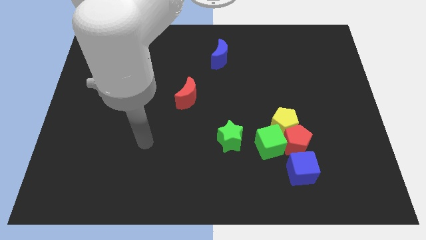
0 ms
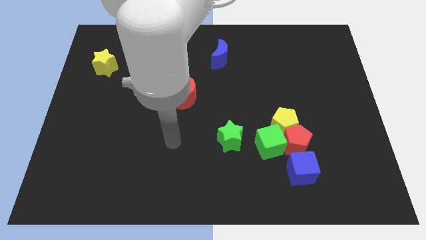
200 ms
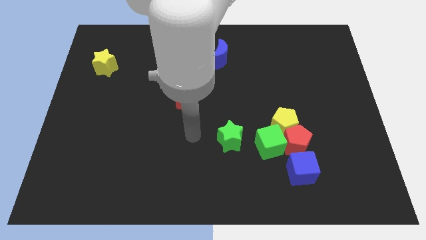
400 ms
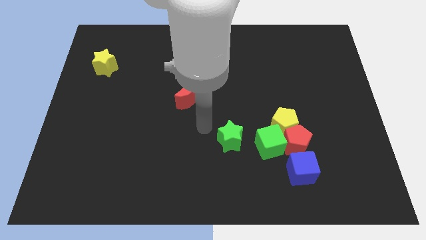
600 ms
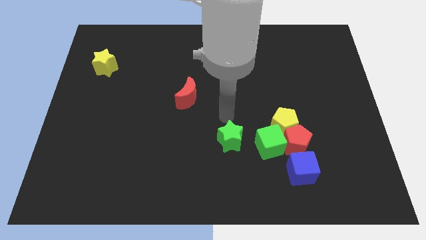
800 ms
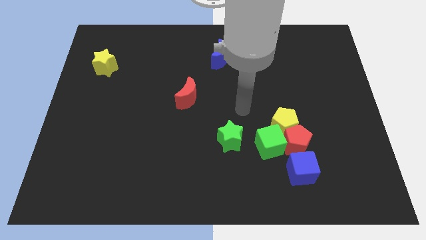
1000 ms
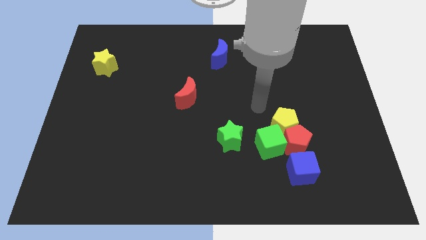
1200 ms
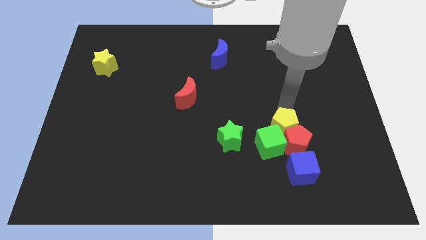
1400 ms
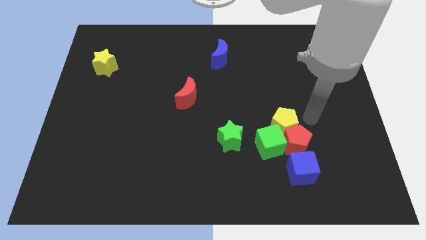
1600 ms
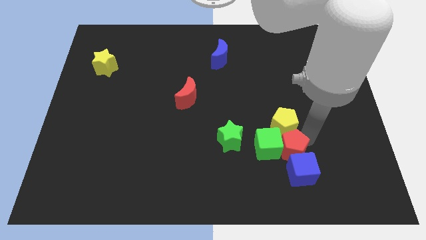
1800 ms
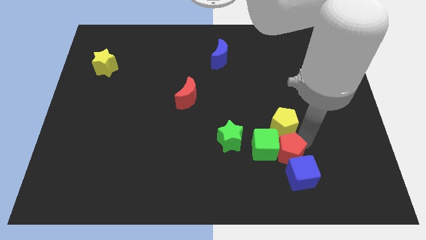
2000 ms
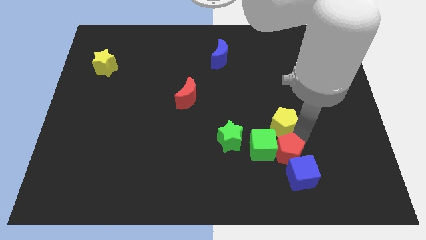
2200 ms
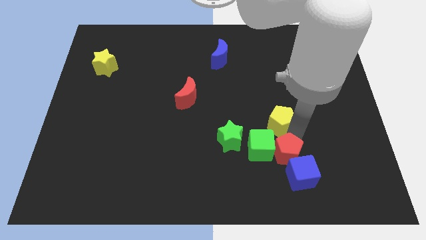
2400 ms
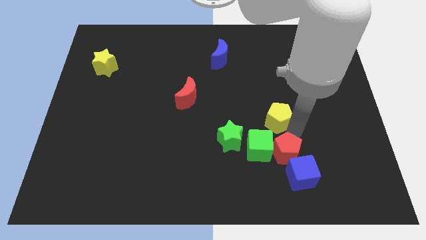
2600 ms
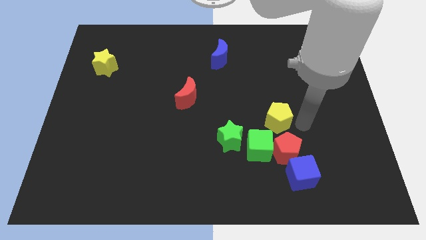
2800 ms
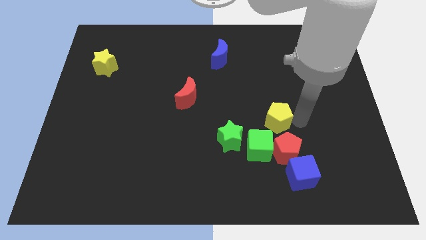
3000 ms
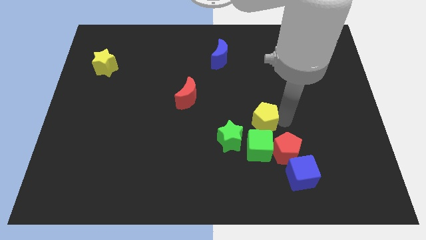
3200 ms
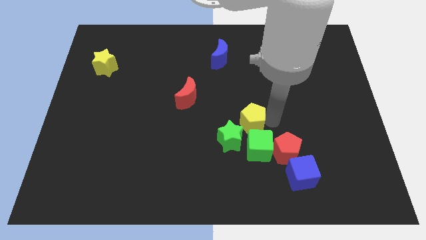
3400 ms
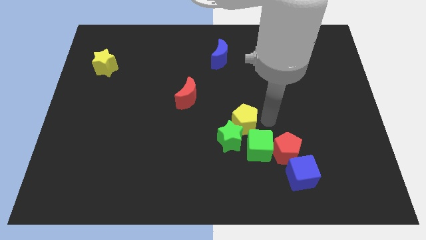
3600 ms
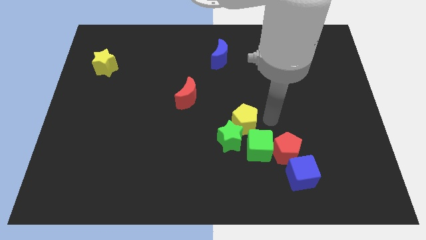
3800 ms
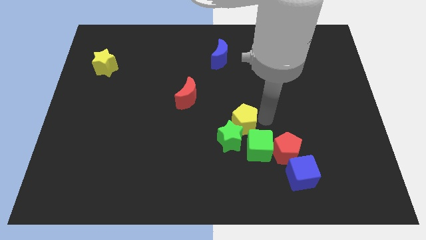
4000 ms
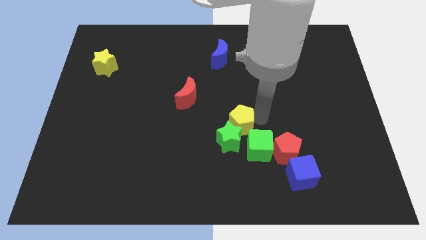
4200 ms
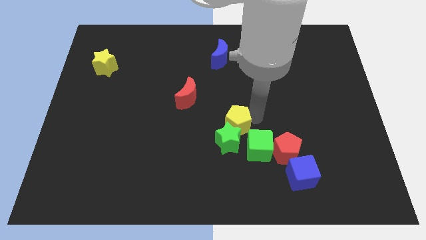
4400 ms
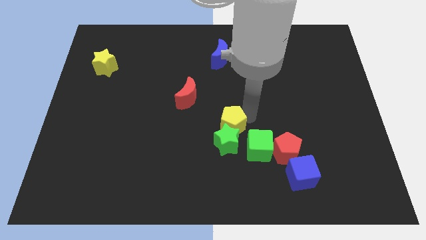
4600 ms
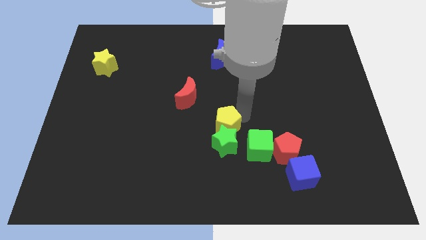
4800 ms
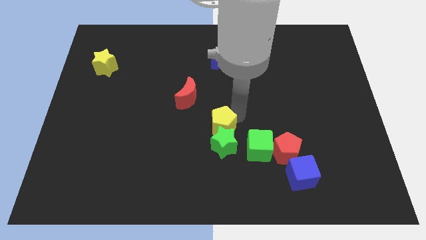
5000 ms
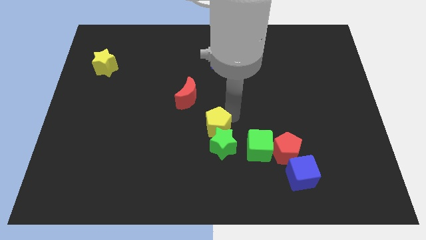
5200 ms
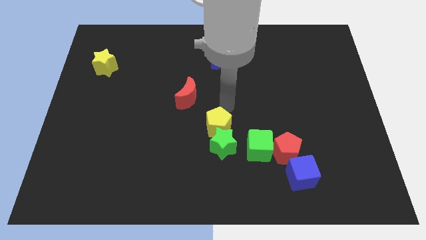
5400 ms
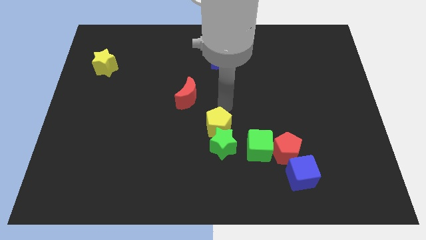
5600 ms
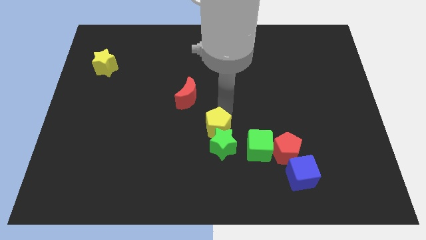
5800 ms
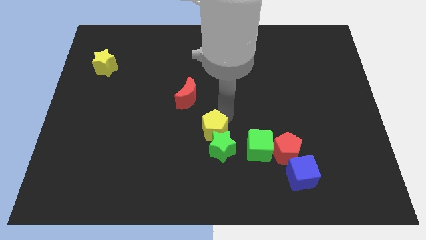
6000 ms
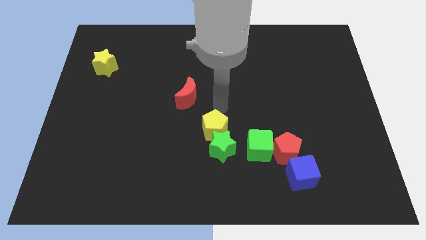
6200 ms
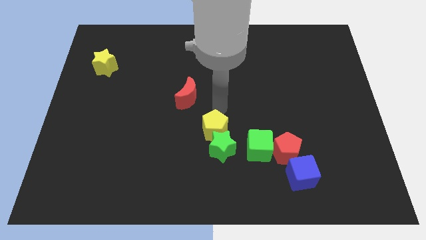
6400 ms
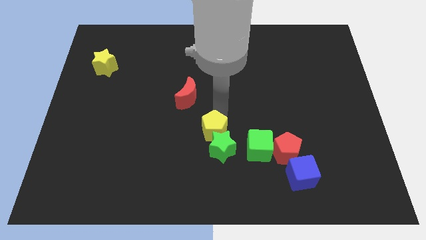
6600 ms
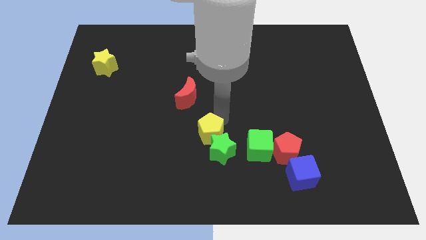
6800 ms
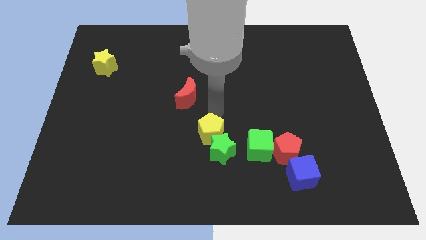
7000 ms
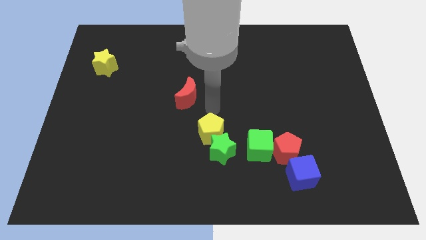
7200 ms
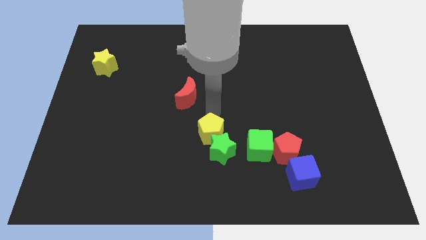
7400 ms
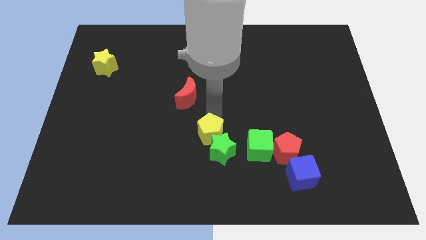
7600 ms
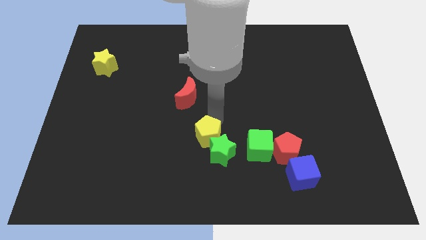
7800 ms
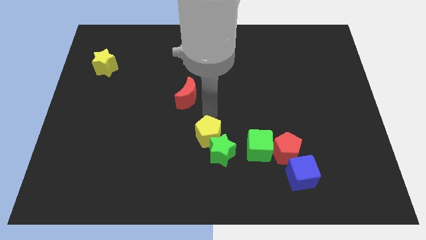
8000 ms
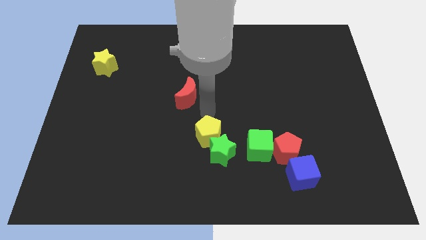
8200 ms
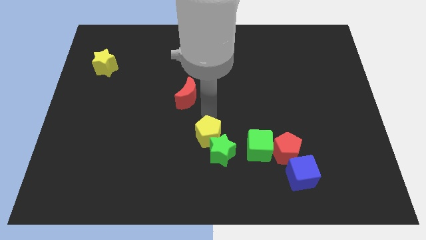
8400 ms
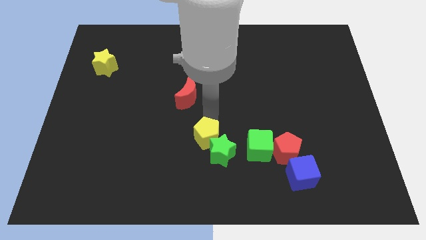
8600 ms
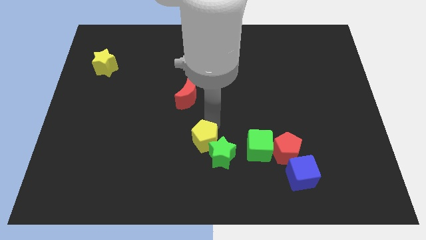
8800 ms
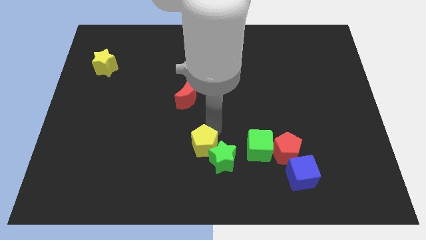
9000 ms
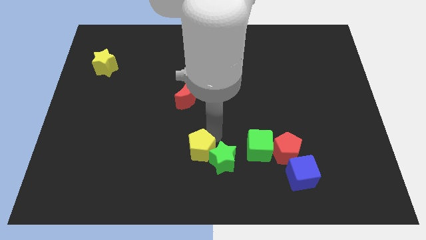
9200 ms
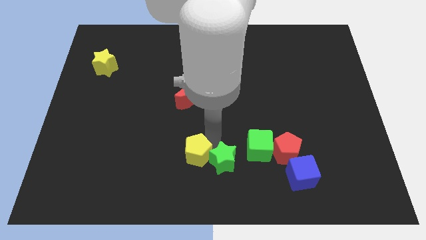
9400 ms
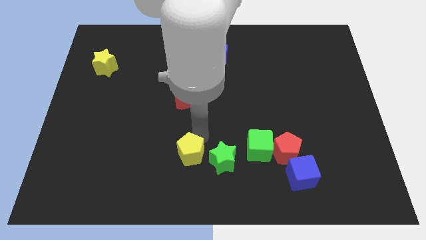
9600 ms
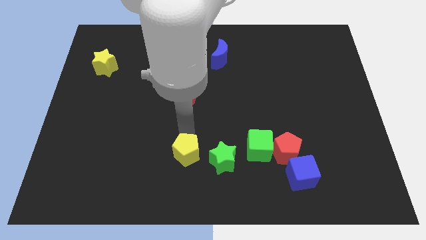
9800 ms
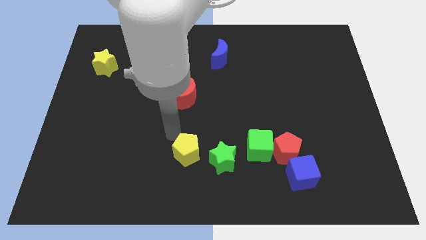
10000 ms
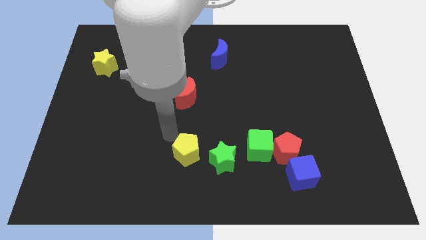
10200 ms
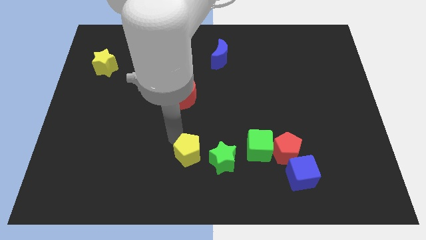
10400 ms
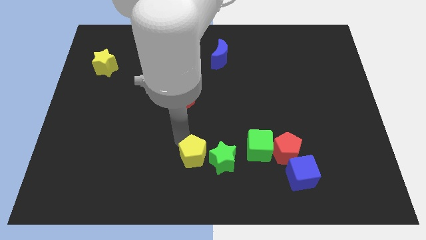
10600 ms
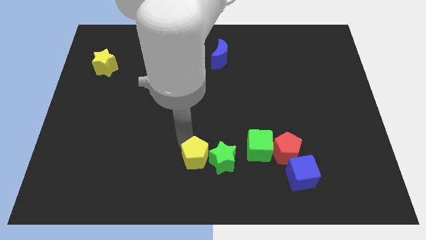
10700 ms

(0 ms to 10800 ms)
push the yellow pentagon to the bottom side

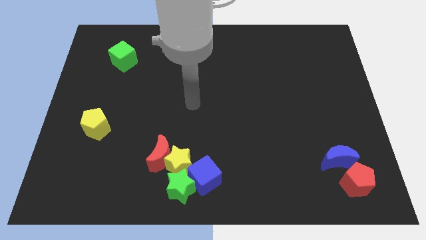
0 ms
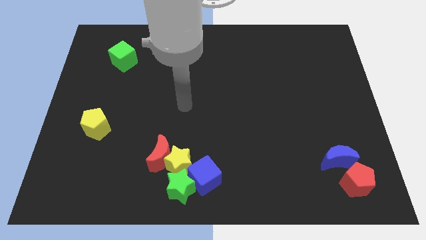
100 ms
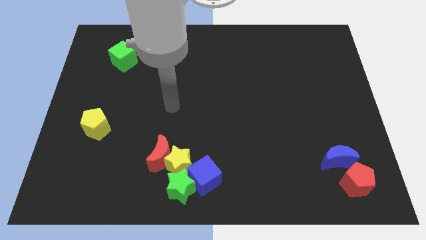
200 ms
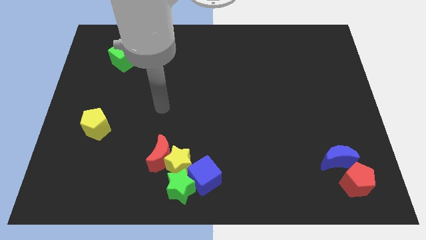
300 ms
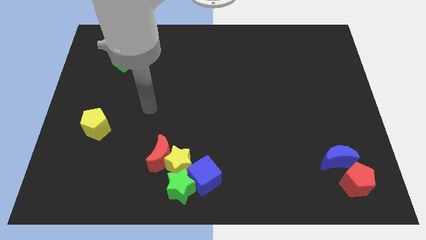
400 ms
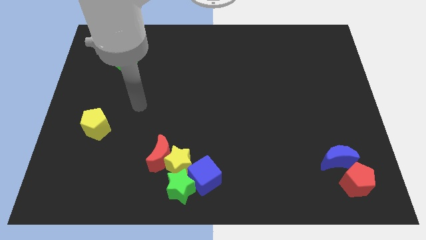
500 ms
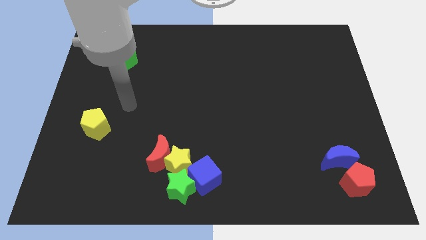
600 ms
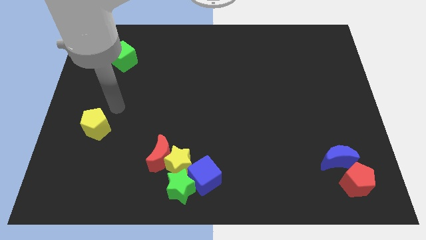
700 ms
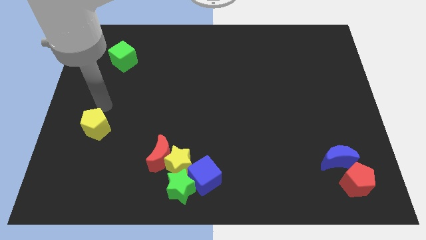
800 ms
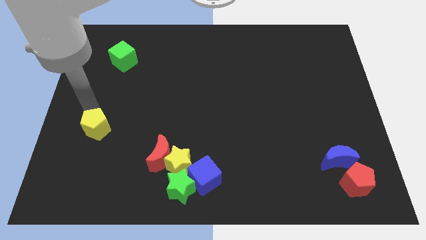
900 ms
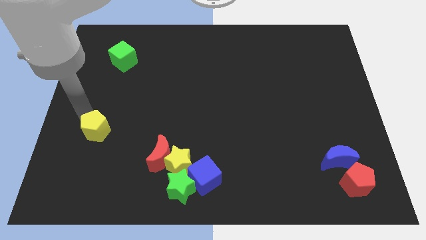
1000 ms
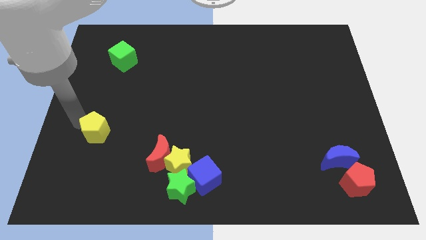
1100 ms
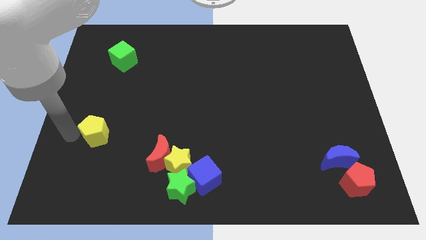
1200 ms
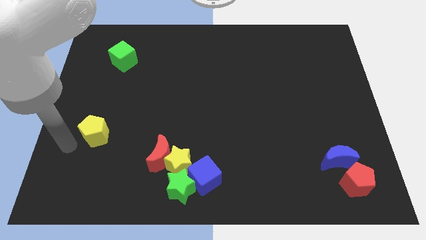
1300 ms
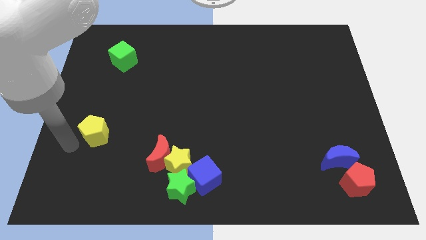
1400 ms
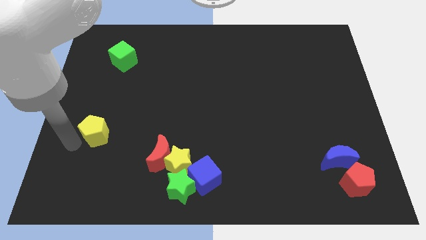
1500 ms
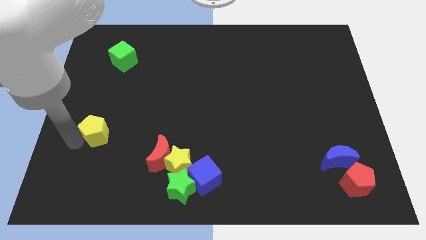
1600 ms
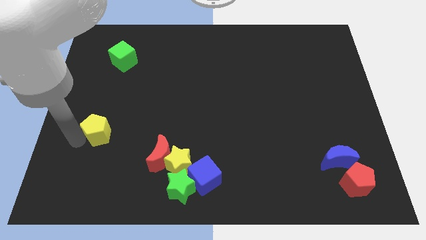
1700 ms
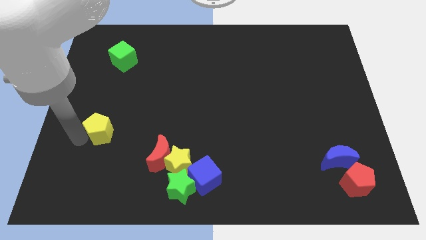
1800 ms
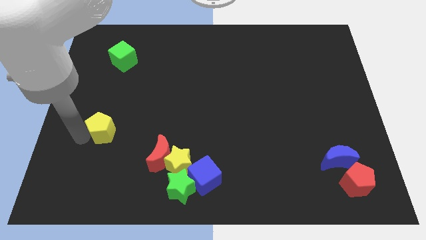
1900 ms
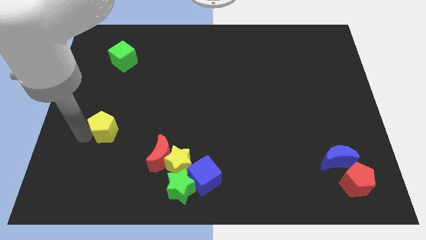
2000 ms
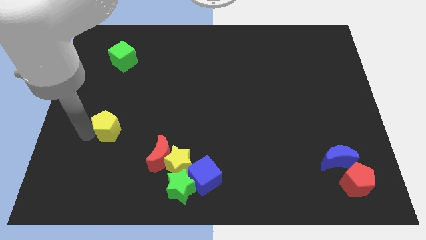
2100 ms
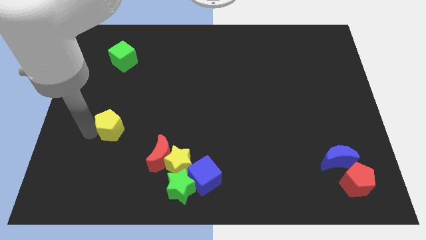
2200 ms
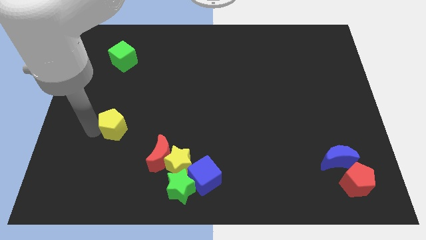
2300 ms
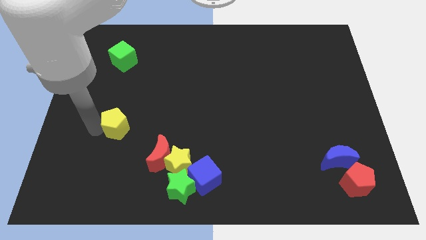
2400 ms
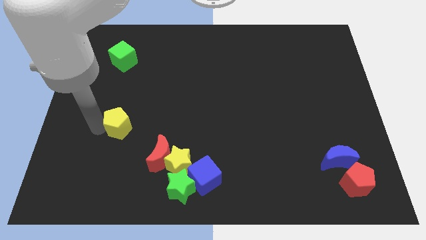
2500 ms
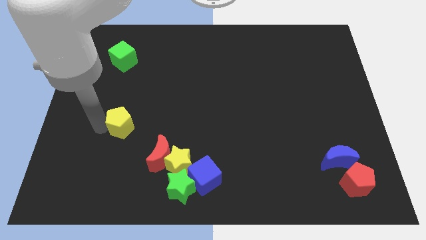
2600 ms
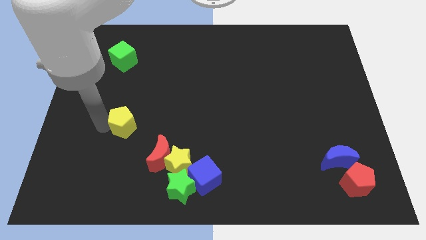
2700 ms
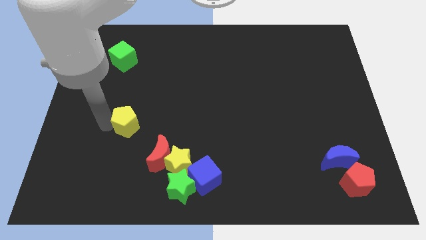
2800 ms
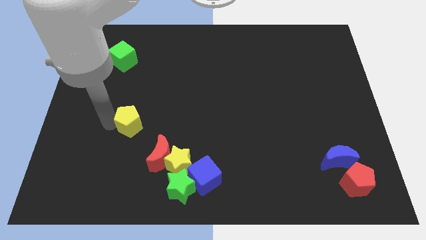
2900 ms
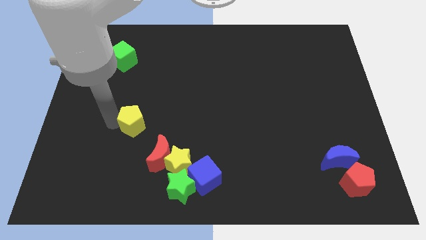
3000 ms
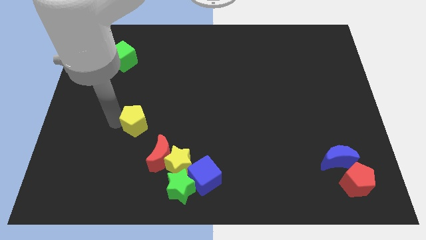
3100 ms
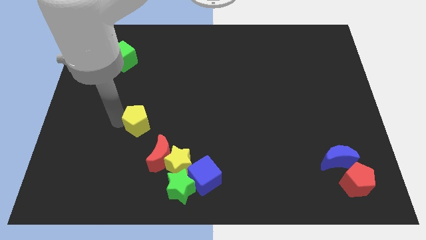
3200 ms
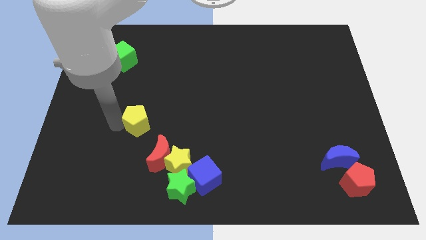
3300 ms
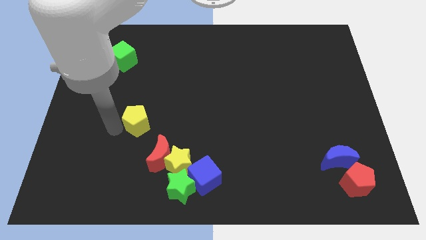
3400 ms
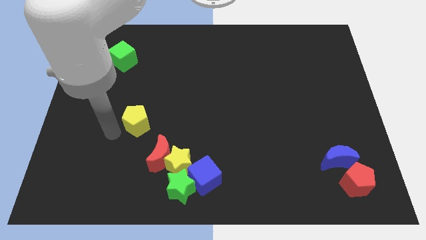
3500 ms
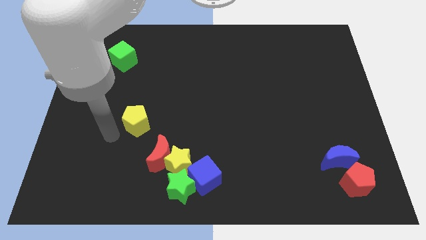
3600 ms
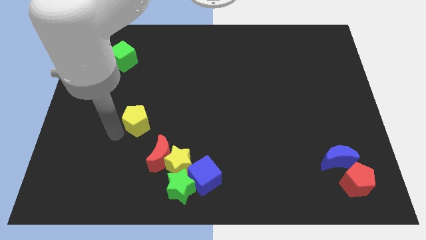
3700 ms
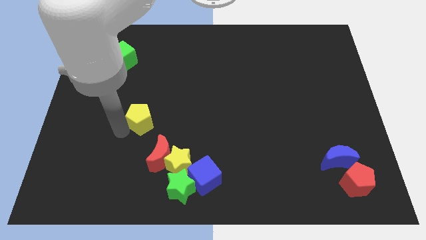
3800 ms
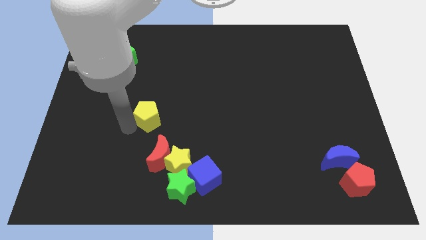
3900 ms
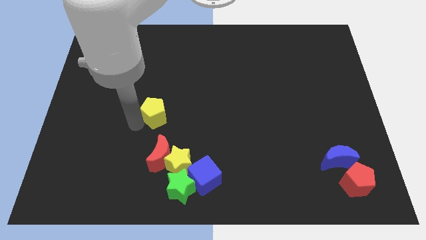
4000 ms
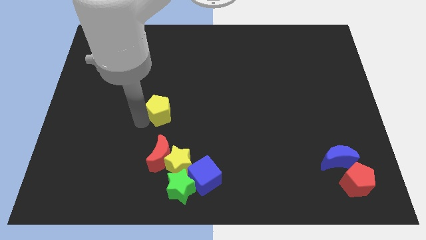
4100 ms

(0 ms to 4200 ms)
put the yellow pentagon to the middle of the board
